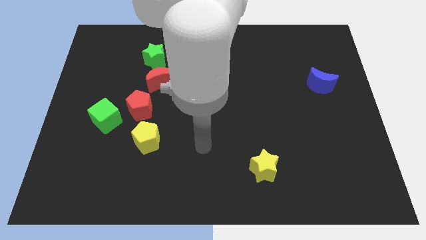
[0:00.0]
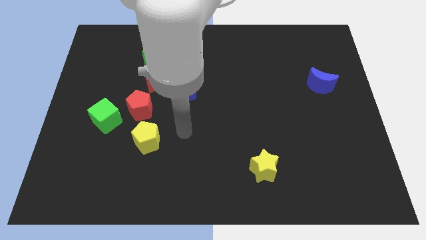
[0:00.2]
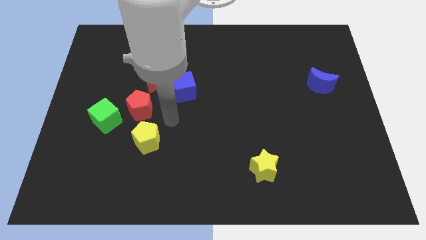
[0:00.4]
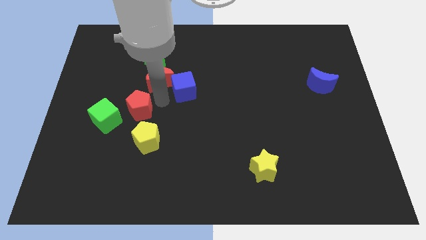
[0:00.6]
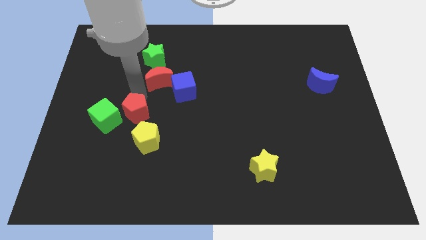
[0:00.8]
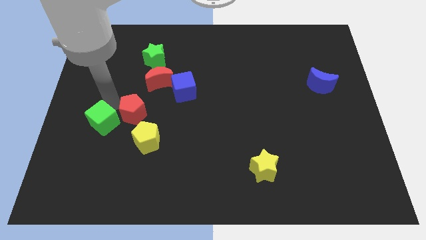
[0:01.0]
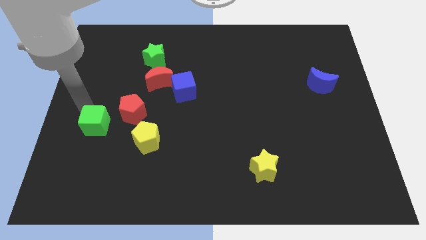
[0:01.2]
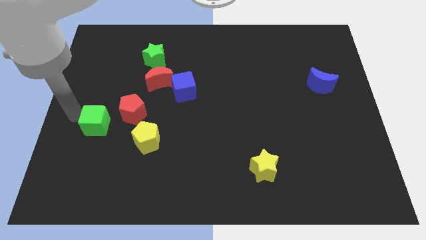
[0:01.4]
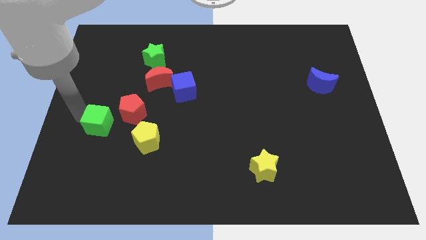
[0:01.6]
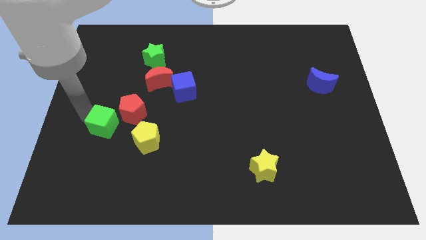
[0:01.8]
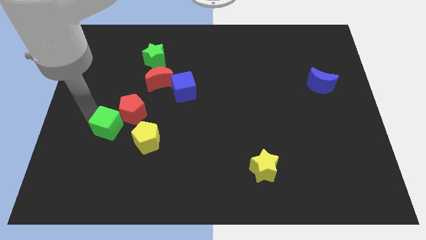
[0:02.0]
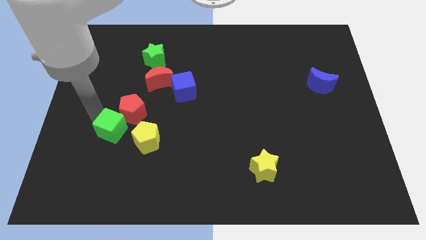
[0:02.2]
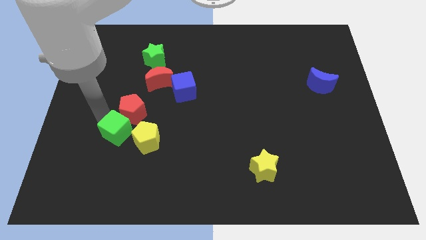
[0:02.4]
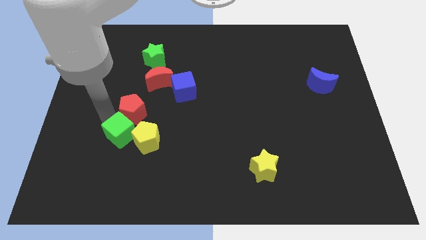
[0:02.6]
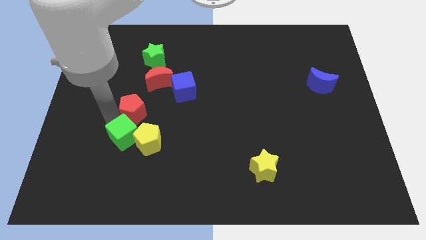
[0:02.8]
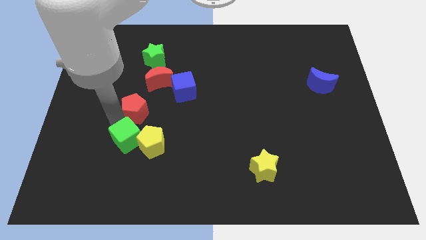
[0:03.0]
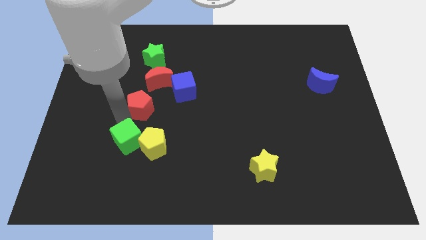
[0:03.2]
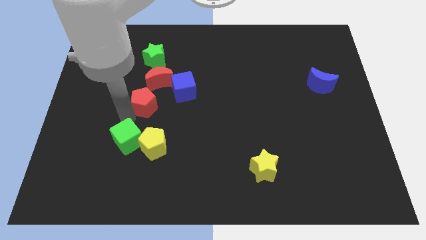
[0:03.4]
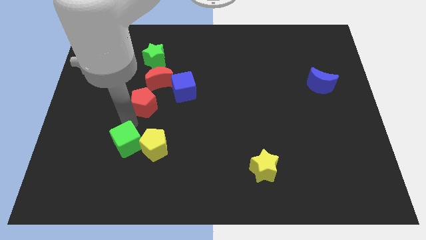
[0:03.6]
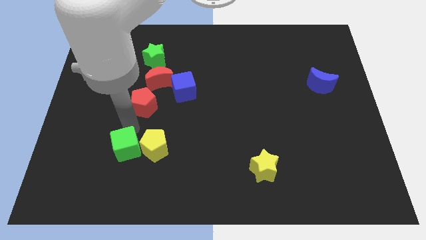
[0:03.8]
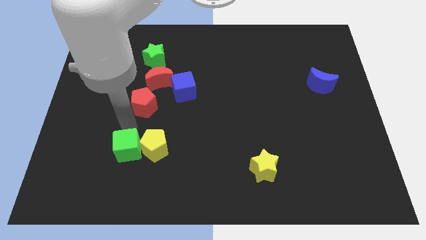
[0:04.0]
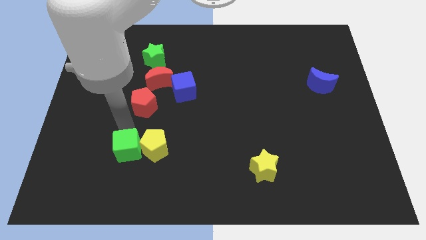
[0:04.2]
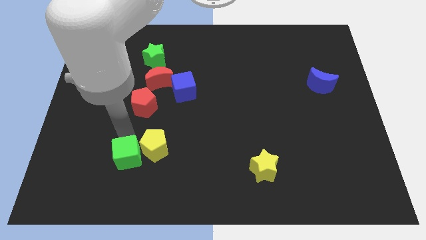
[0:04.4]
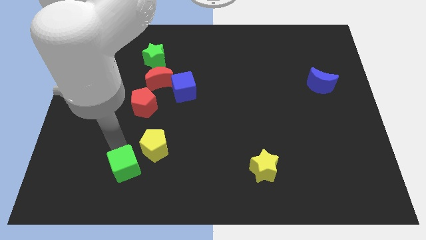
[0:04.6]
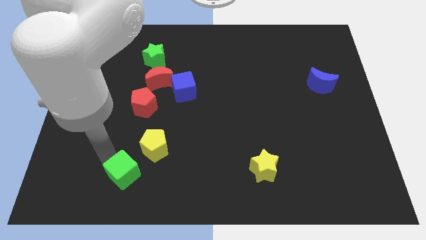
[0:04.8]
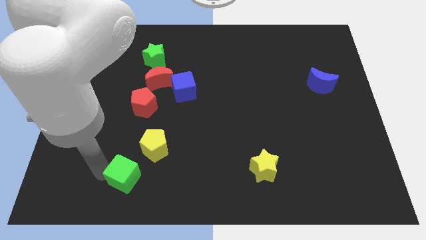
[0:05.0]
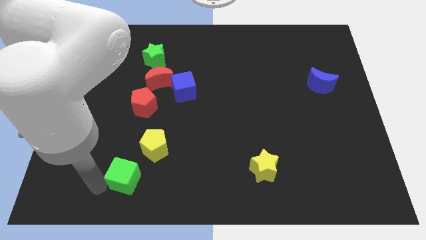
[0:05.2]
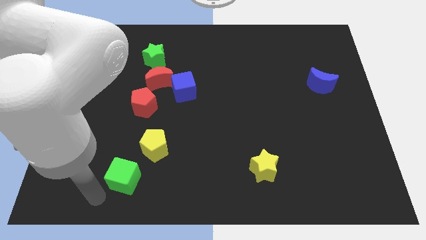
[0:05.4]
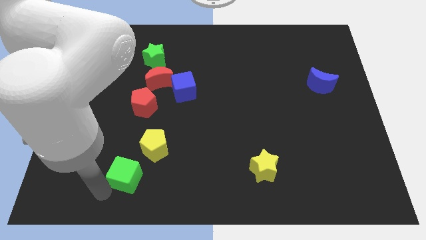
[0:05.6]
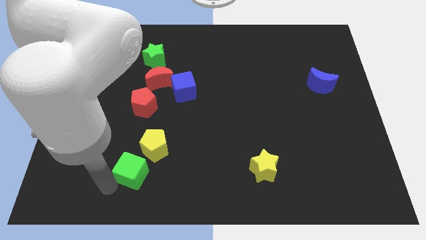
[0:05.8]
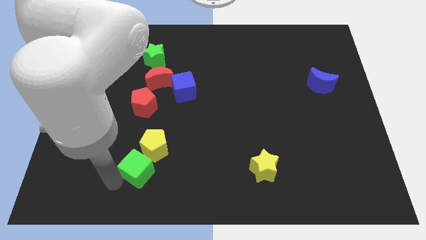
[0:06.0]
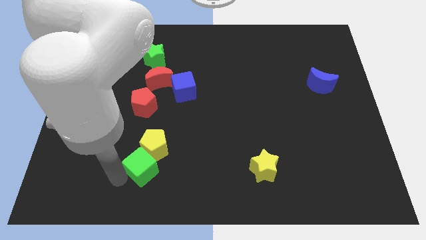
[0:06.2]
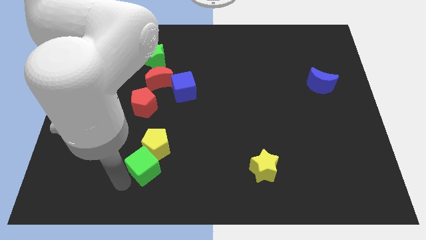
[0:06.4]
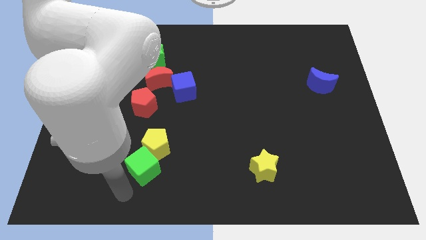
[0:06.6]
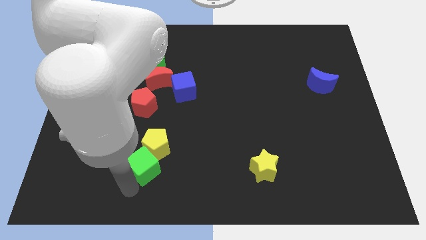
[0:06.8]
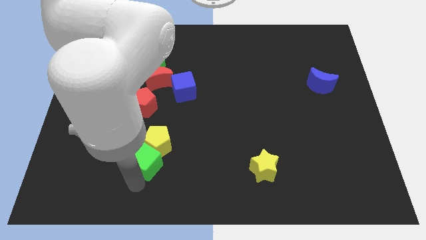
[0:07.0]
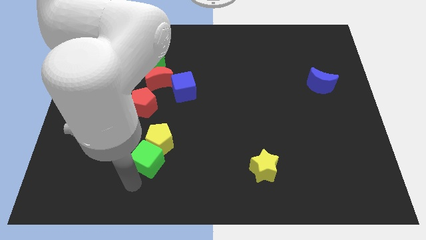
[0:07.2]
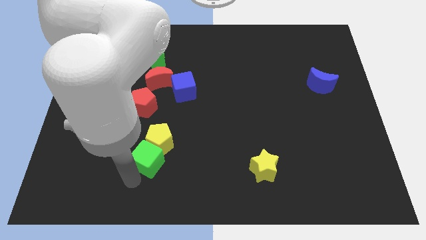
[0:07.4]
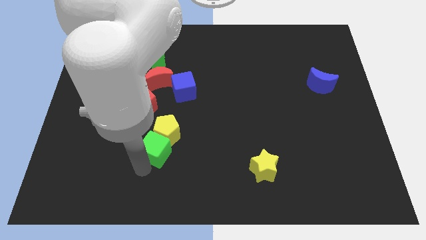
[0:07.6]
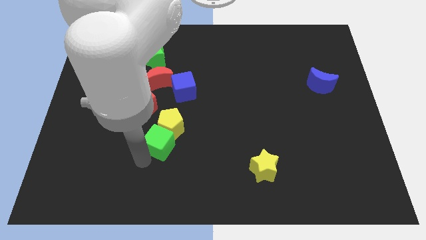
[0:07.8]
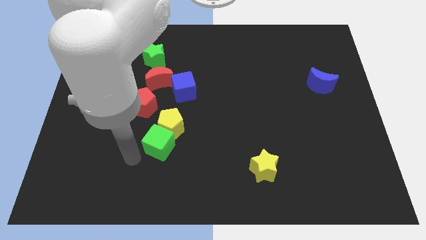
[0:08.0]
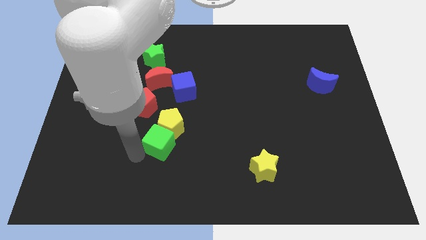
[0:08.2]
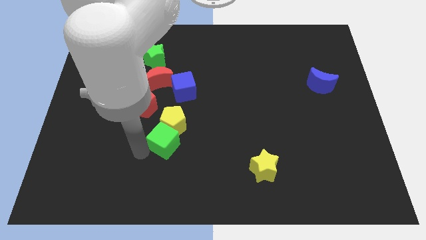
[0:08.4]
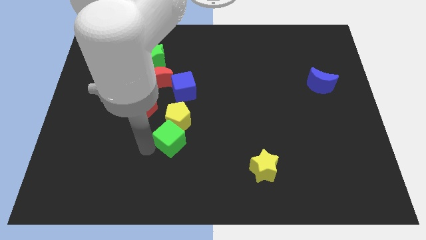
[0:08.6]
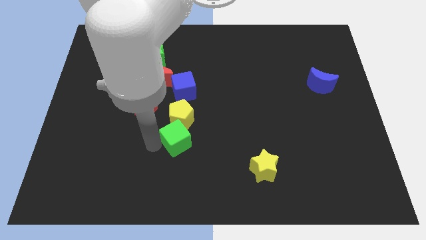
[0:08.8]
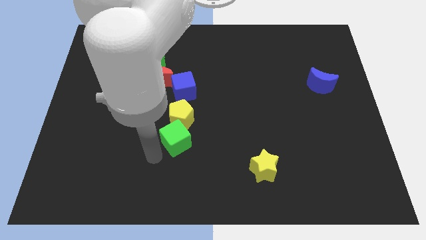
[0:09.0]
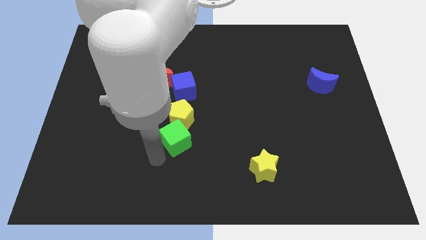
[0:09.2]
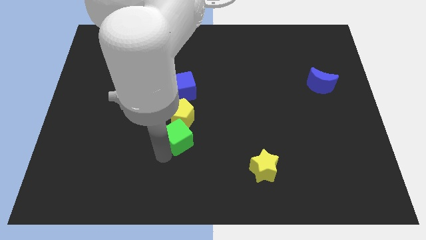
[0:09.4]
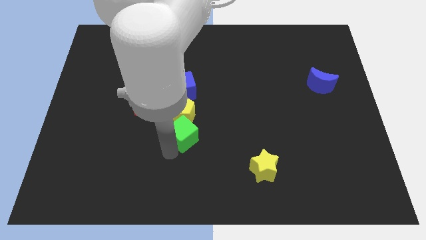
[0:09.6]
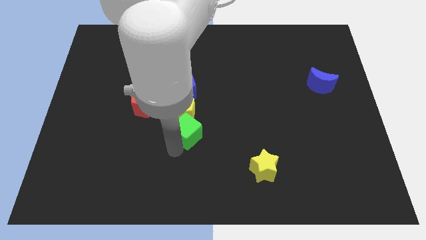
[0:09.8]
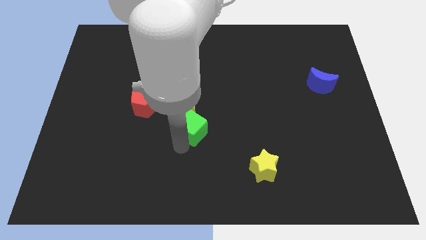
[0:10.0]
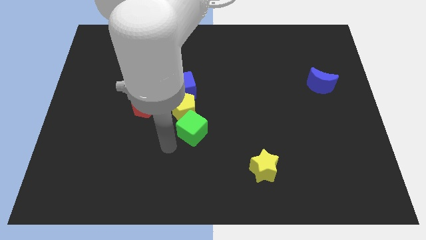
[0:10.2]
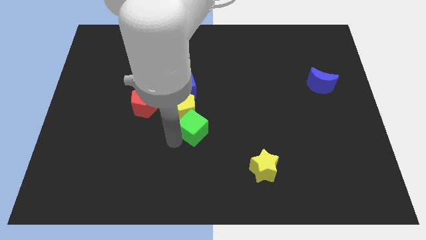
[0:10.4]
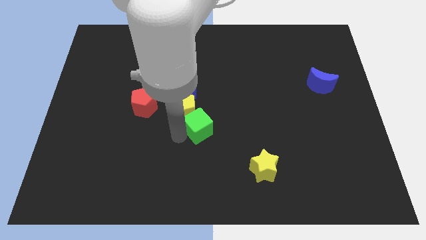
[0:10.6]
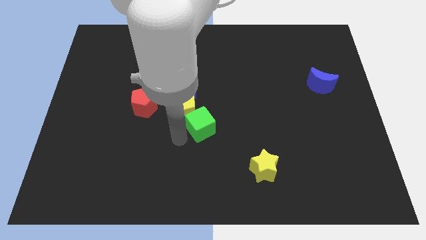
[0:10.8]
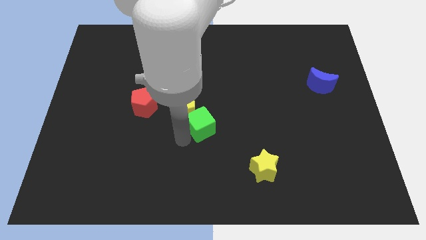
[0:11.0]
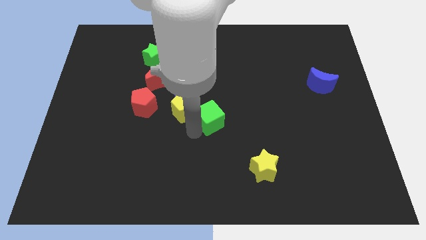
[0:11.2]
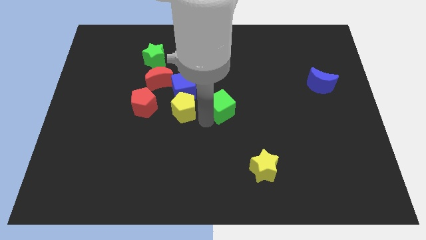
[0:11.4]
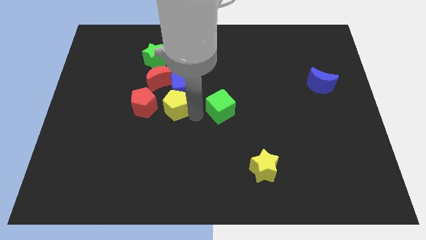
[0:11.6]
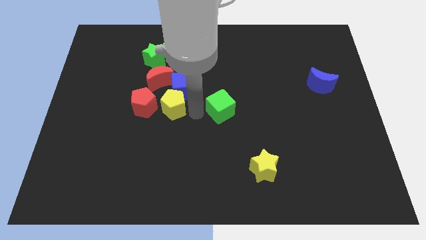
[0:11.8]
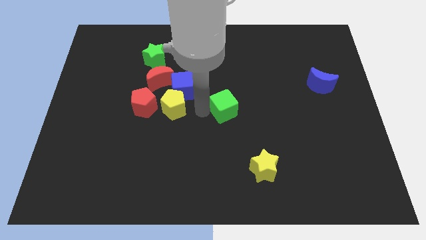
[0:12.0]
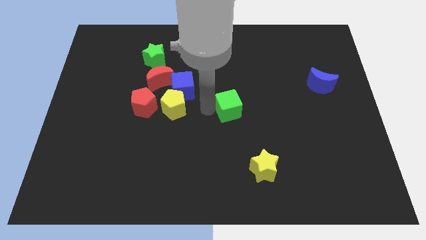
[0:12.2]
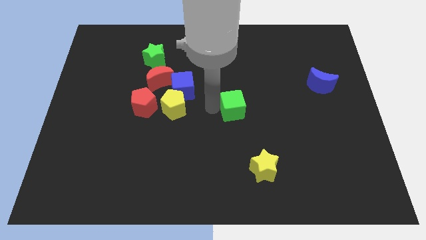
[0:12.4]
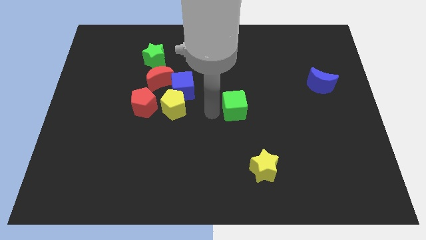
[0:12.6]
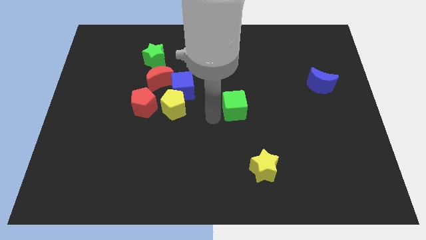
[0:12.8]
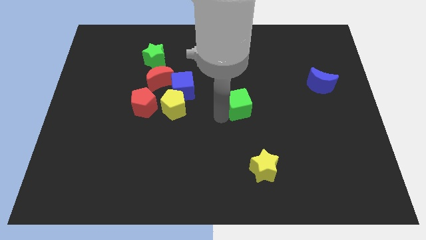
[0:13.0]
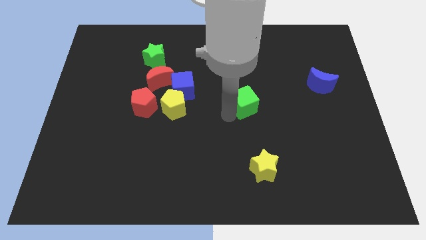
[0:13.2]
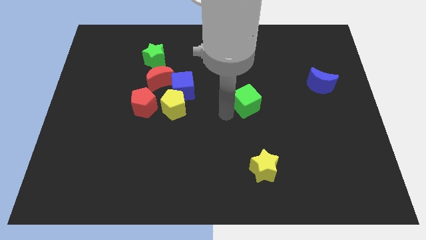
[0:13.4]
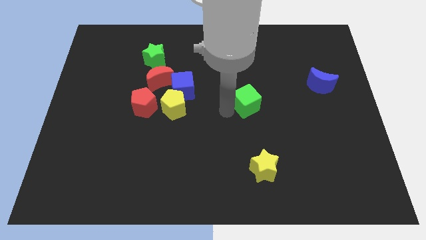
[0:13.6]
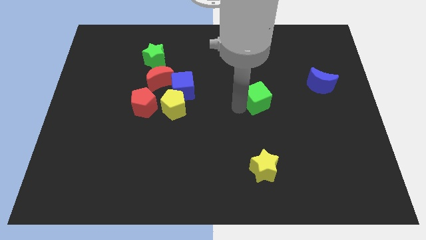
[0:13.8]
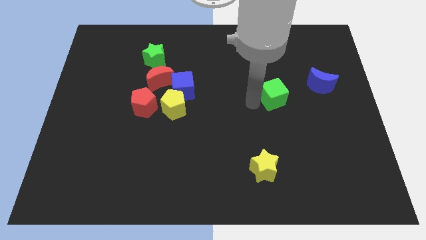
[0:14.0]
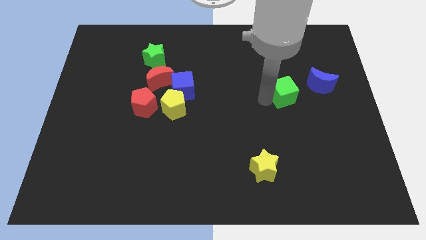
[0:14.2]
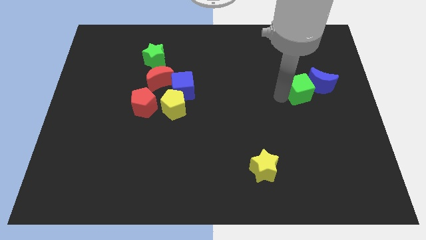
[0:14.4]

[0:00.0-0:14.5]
slide the green cube to the blue moon

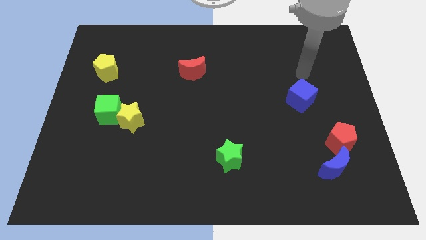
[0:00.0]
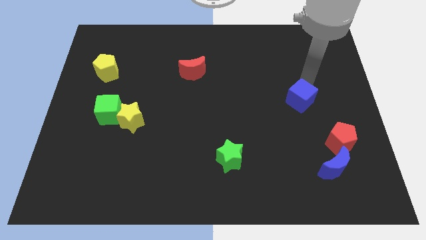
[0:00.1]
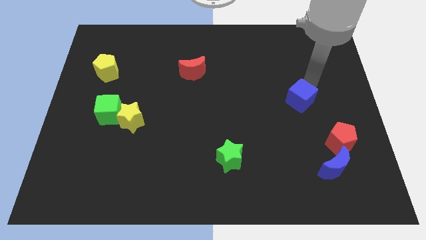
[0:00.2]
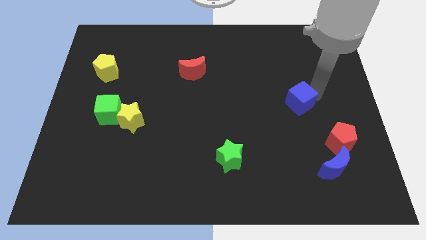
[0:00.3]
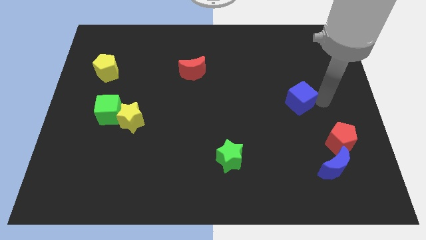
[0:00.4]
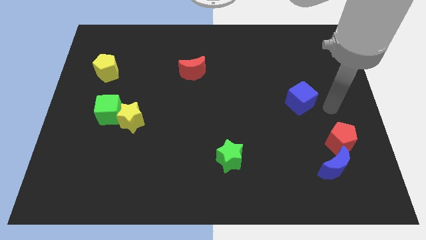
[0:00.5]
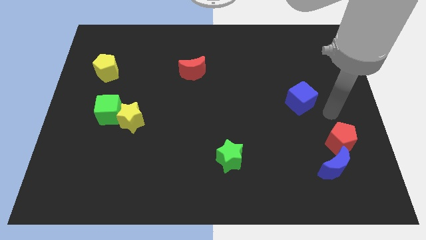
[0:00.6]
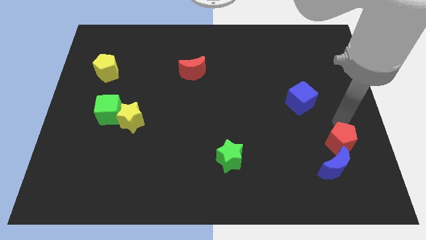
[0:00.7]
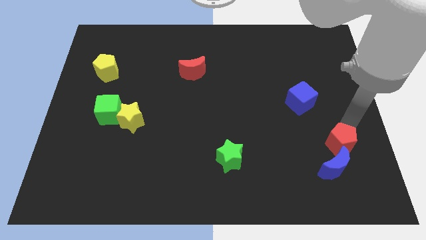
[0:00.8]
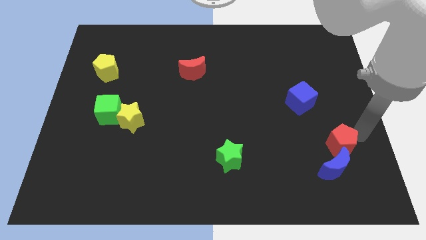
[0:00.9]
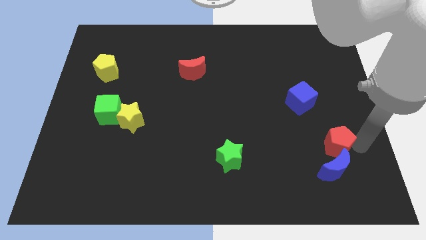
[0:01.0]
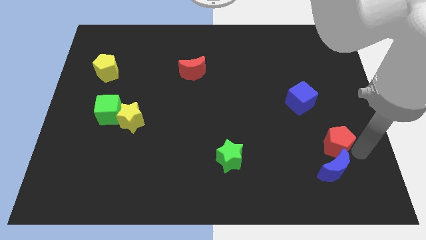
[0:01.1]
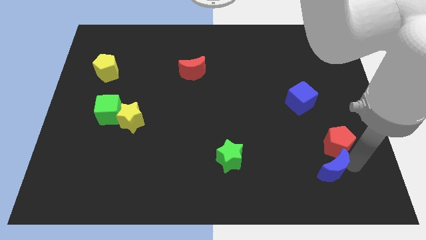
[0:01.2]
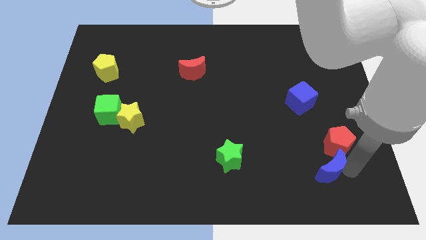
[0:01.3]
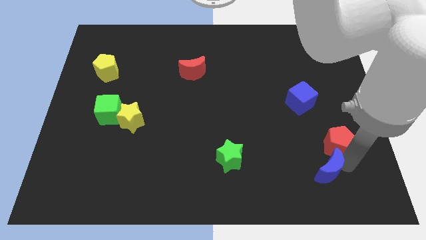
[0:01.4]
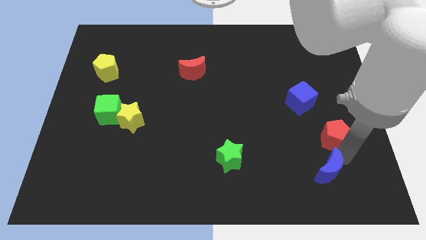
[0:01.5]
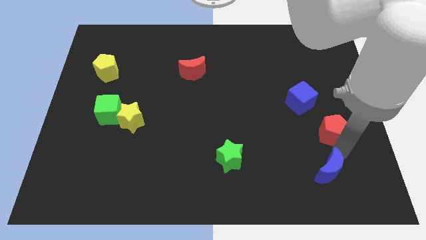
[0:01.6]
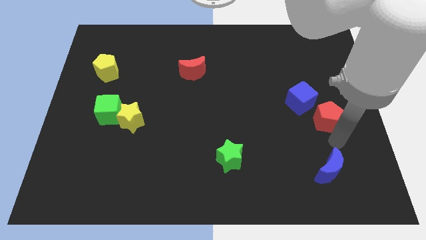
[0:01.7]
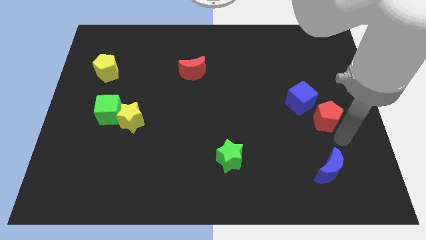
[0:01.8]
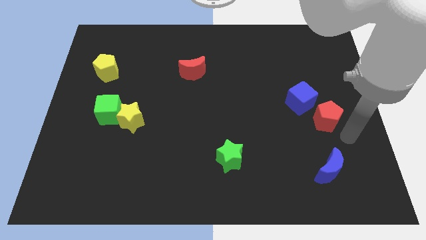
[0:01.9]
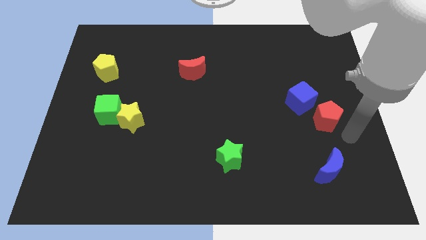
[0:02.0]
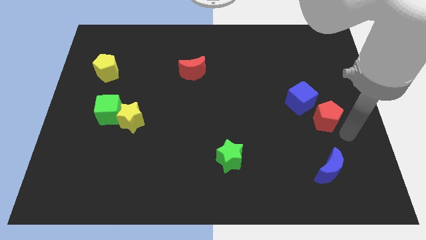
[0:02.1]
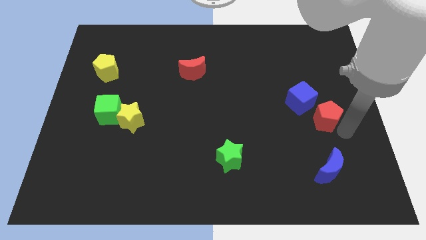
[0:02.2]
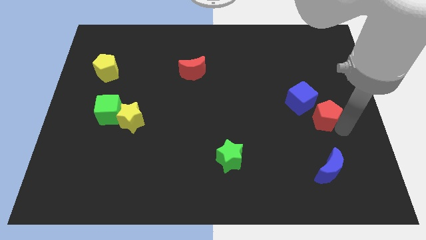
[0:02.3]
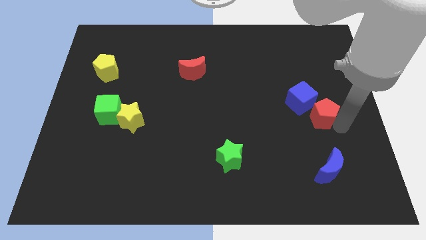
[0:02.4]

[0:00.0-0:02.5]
push the red pentagon close to the blue cube
